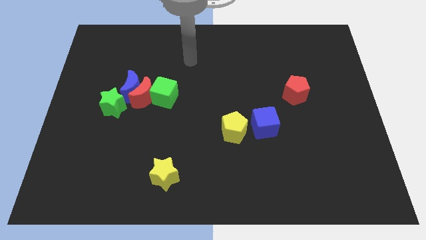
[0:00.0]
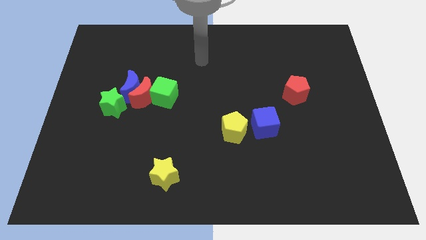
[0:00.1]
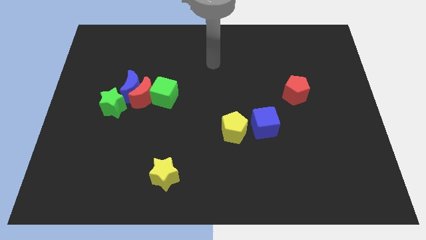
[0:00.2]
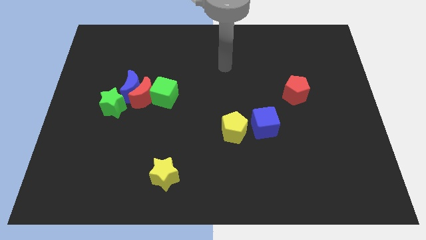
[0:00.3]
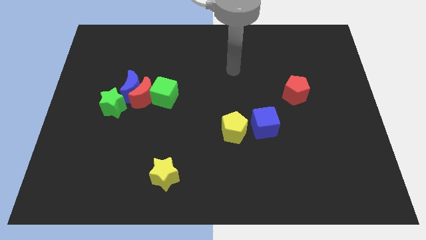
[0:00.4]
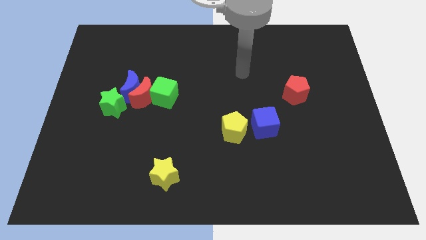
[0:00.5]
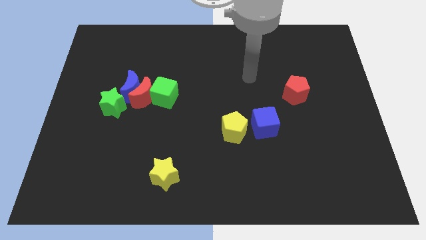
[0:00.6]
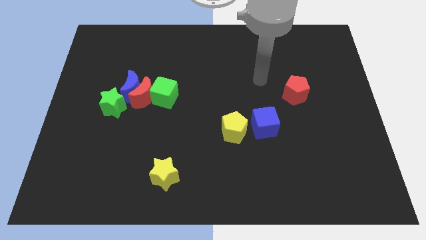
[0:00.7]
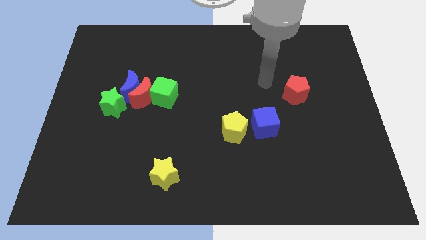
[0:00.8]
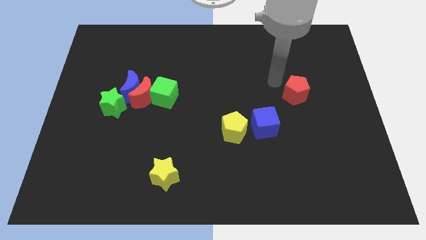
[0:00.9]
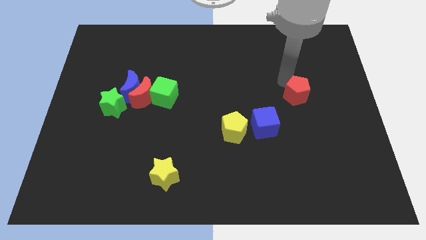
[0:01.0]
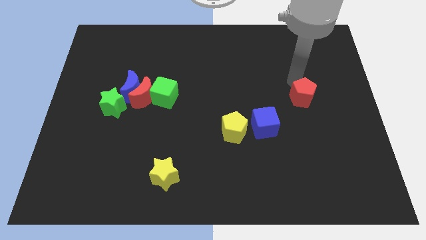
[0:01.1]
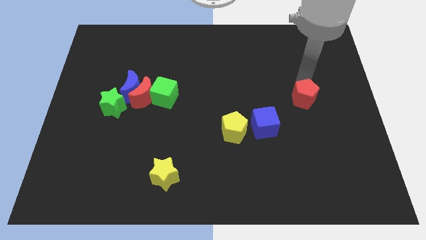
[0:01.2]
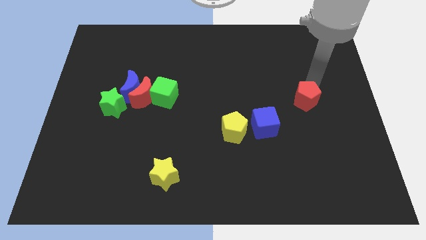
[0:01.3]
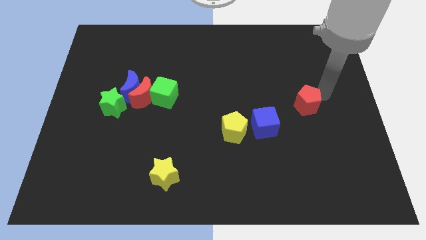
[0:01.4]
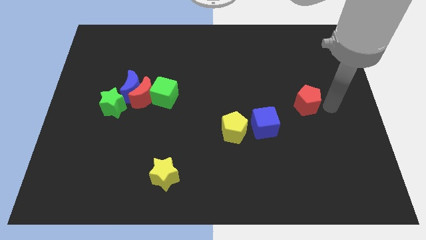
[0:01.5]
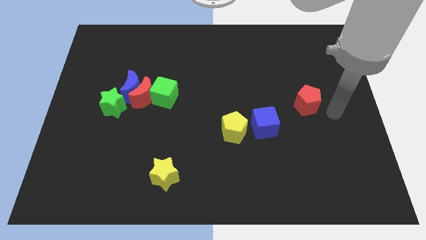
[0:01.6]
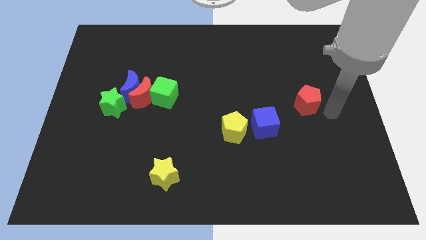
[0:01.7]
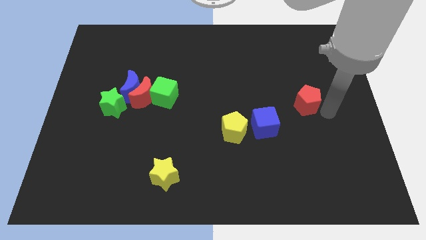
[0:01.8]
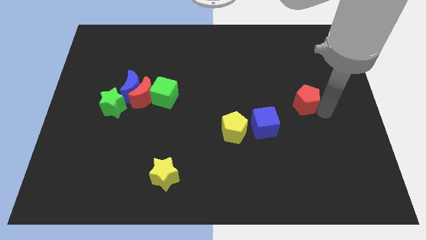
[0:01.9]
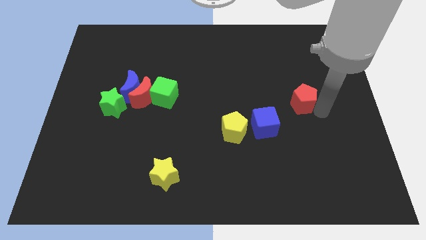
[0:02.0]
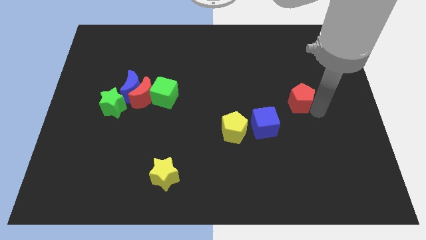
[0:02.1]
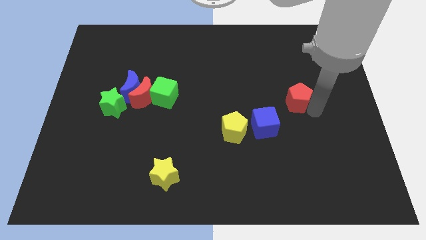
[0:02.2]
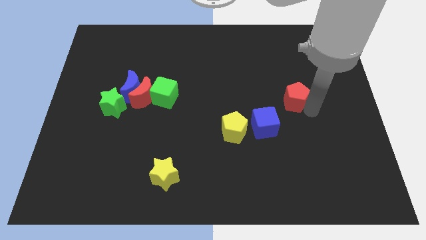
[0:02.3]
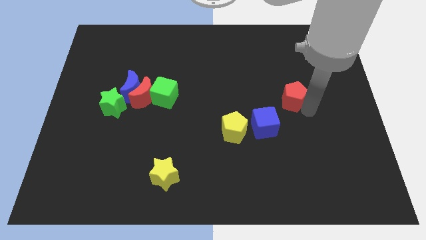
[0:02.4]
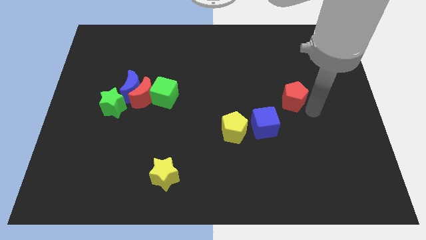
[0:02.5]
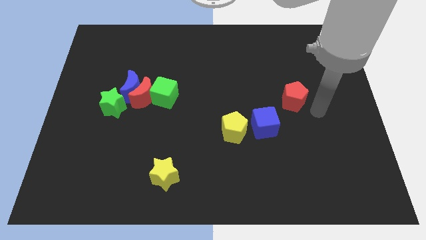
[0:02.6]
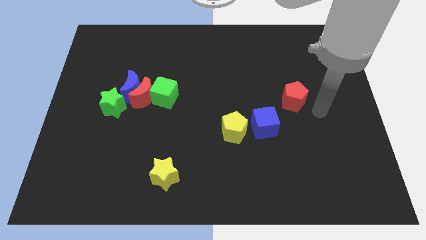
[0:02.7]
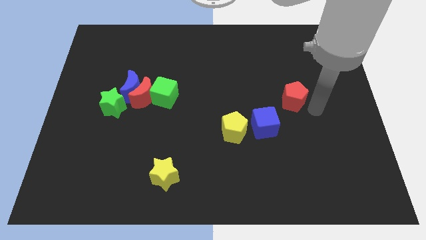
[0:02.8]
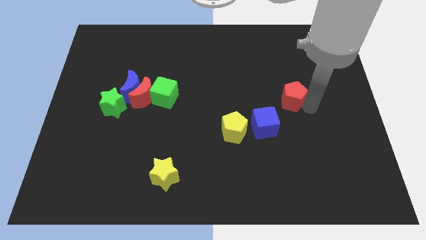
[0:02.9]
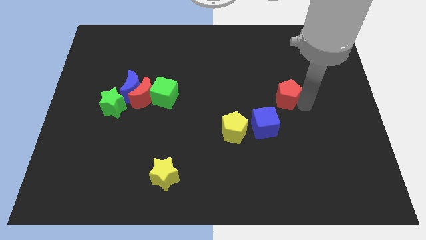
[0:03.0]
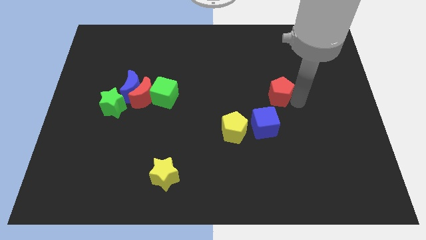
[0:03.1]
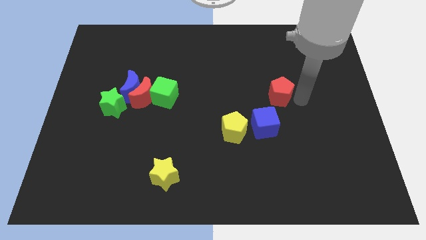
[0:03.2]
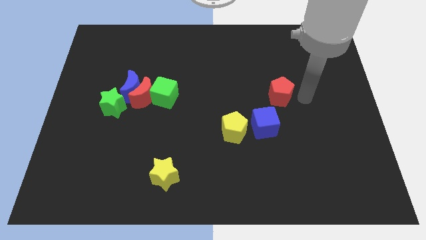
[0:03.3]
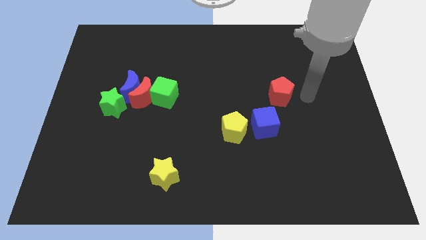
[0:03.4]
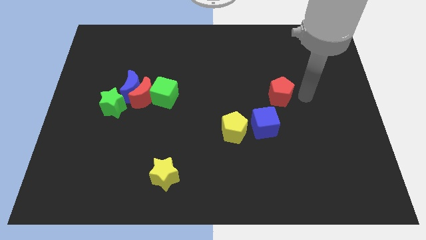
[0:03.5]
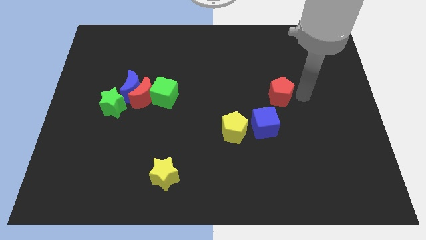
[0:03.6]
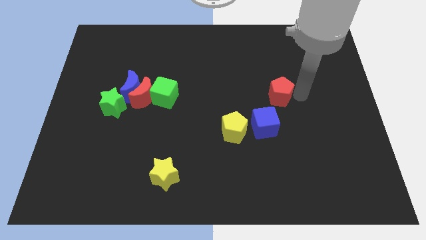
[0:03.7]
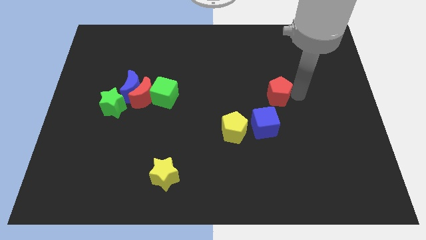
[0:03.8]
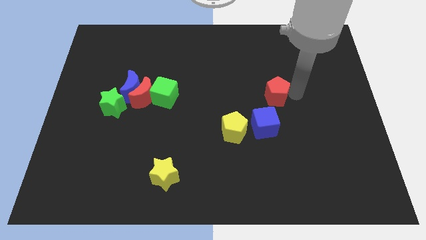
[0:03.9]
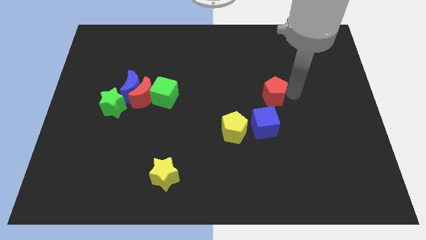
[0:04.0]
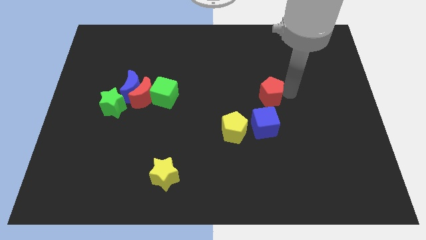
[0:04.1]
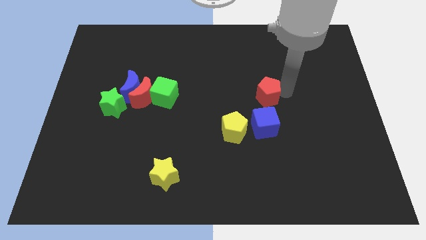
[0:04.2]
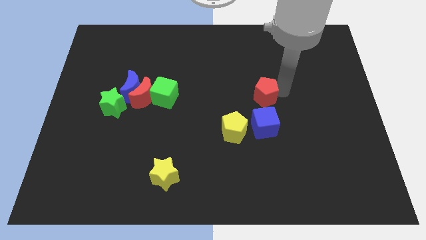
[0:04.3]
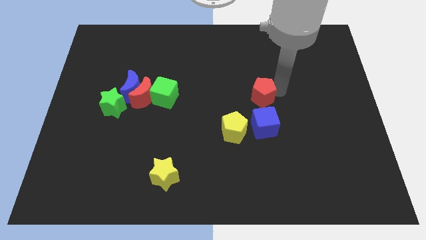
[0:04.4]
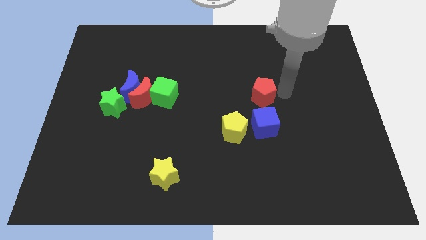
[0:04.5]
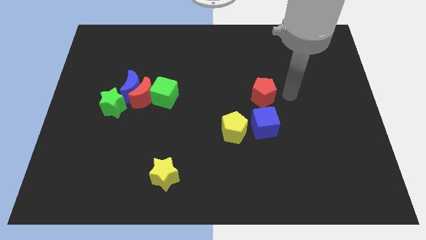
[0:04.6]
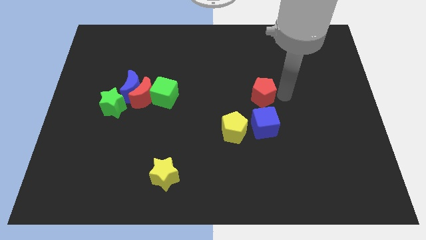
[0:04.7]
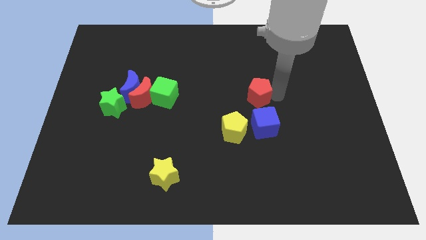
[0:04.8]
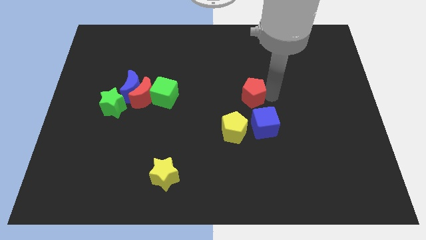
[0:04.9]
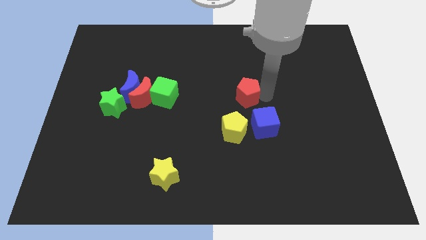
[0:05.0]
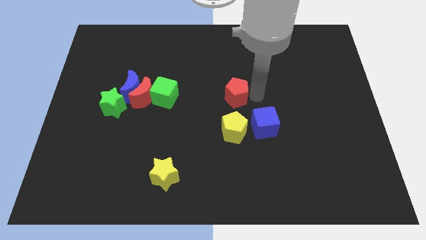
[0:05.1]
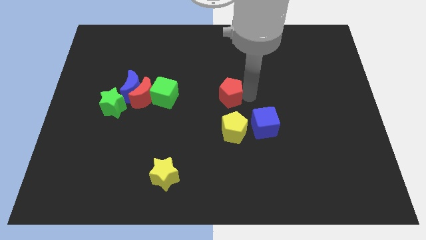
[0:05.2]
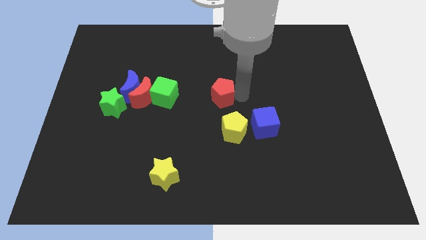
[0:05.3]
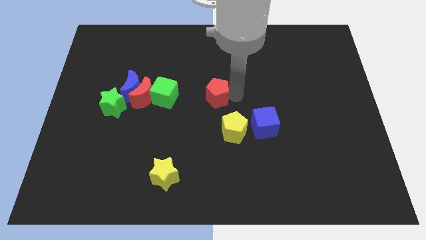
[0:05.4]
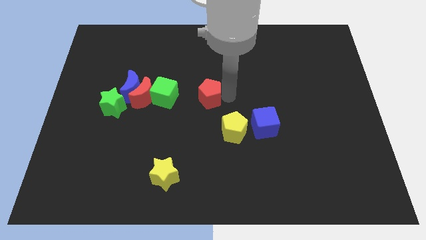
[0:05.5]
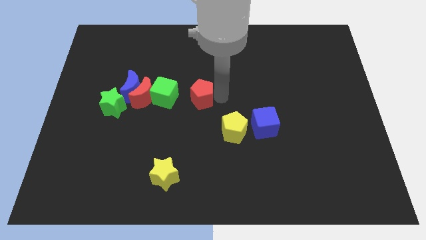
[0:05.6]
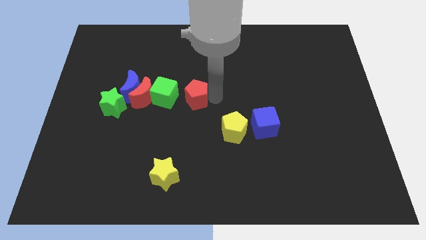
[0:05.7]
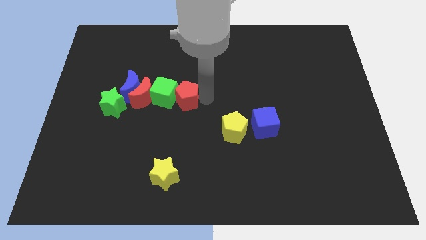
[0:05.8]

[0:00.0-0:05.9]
put the red pentagon to the green cube
